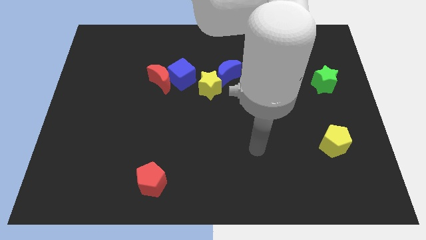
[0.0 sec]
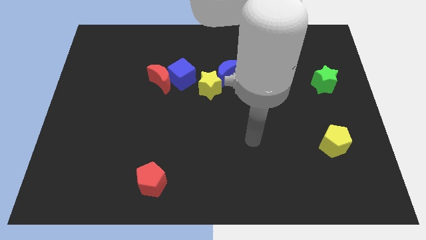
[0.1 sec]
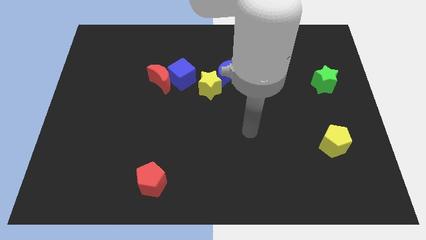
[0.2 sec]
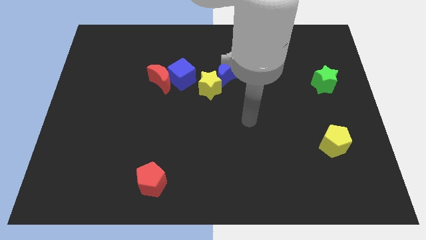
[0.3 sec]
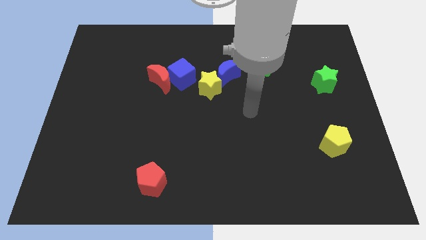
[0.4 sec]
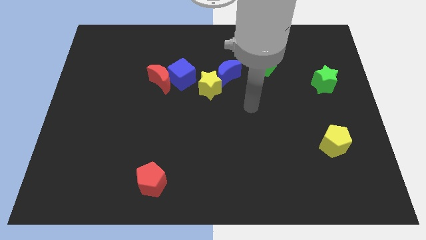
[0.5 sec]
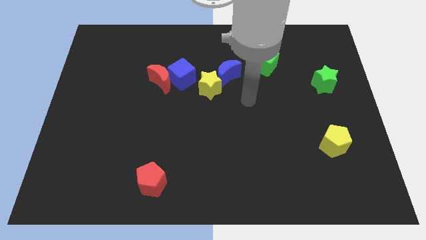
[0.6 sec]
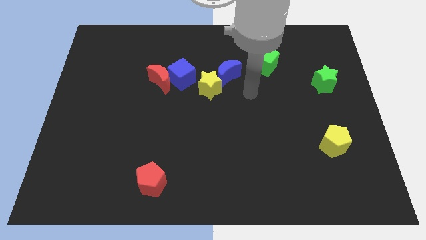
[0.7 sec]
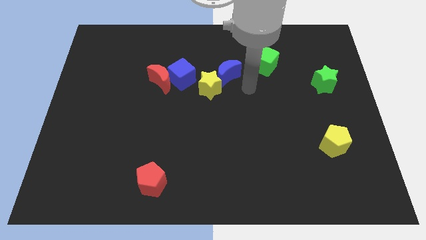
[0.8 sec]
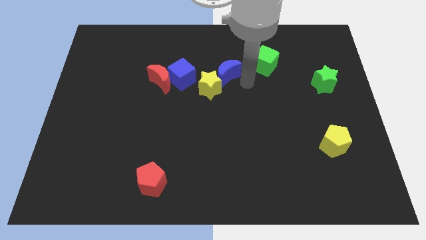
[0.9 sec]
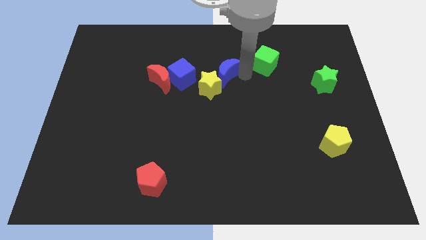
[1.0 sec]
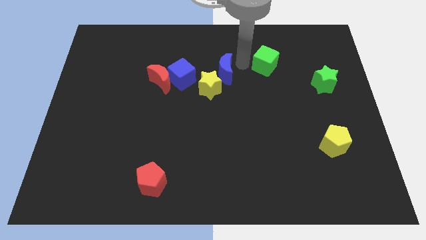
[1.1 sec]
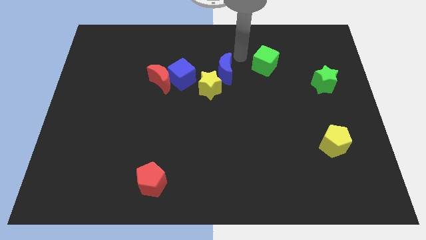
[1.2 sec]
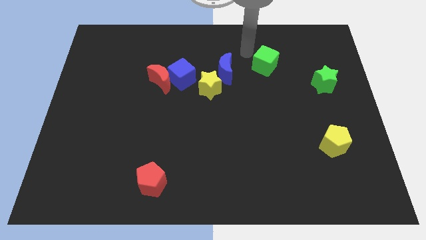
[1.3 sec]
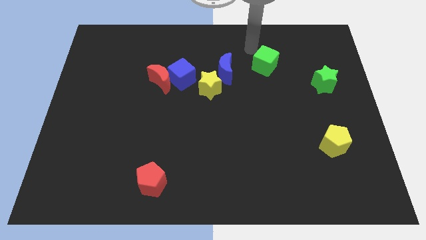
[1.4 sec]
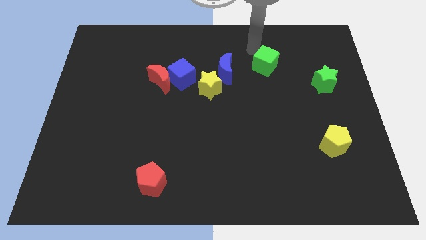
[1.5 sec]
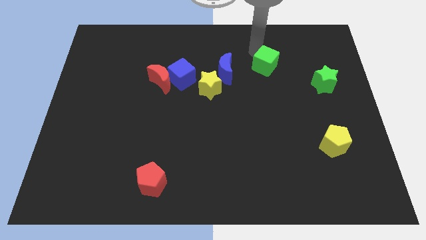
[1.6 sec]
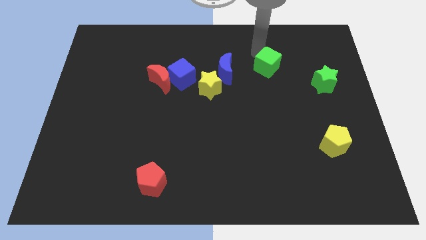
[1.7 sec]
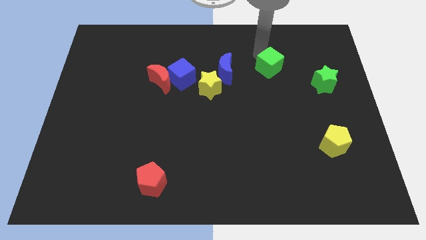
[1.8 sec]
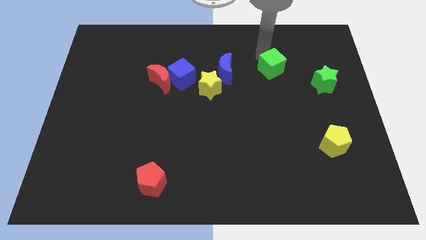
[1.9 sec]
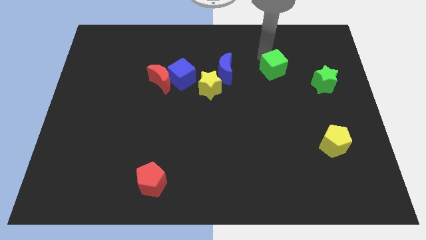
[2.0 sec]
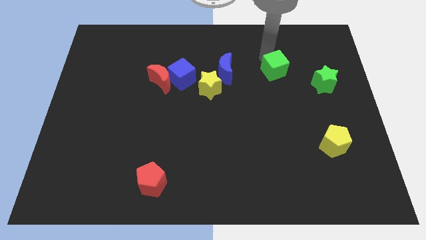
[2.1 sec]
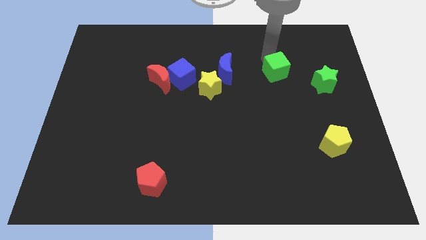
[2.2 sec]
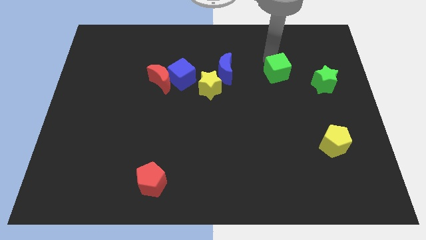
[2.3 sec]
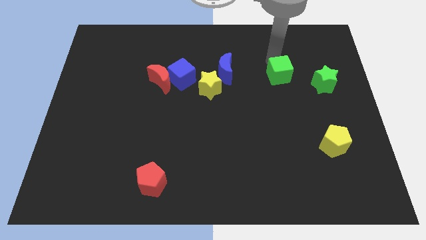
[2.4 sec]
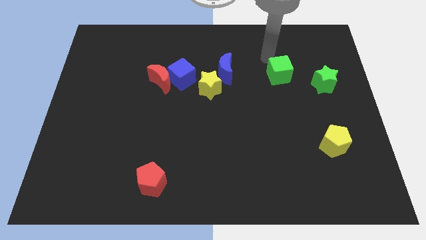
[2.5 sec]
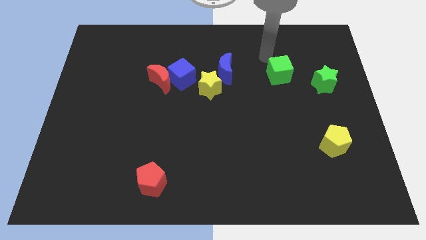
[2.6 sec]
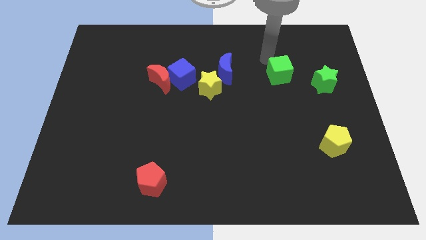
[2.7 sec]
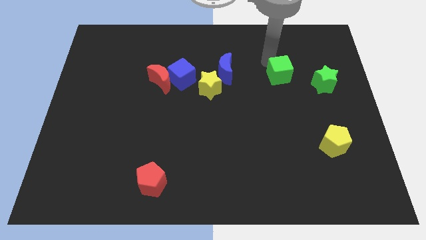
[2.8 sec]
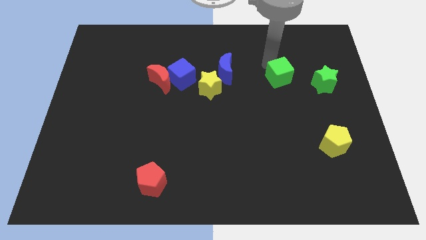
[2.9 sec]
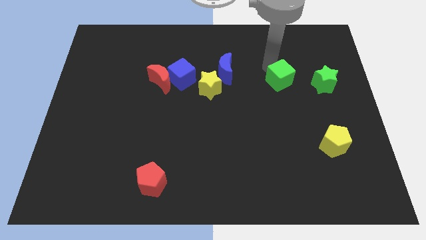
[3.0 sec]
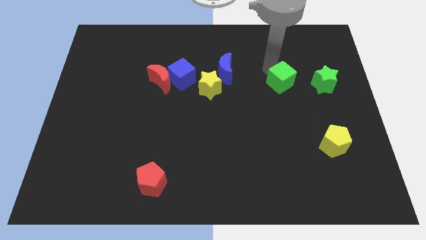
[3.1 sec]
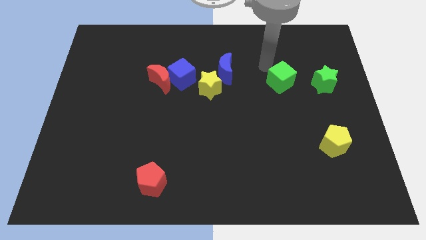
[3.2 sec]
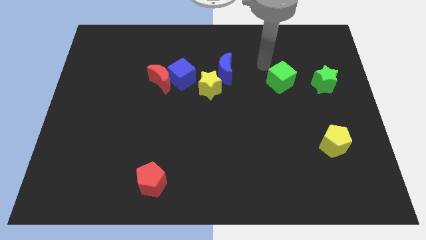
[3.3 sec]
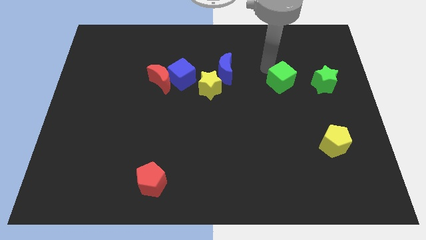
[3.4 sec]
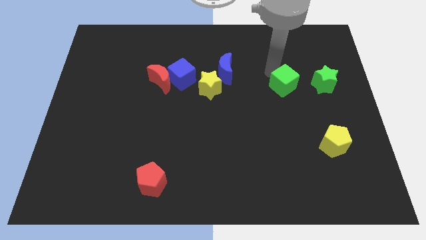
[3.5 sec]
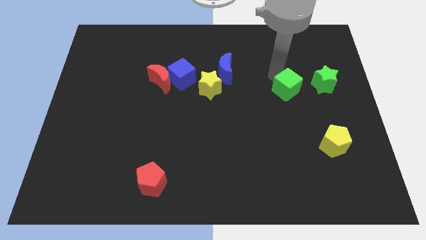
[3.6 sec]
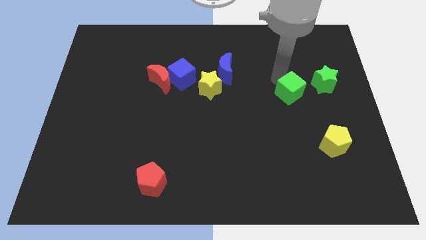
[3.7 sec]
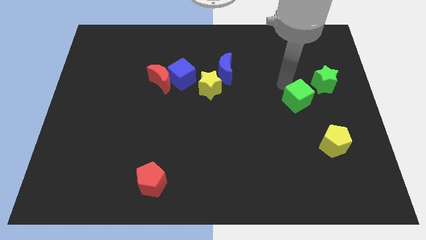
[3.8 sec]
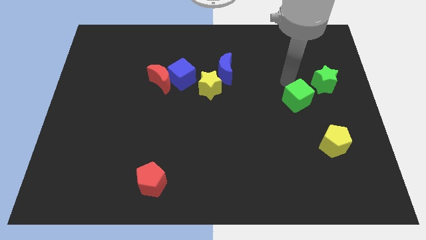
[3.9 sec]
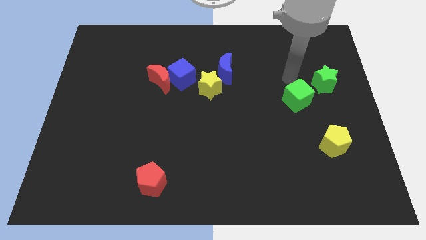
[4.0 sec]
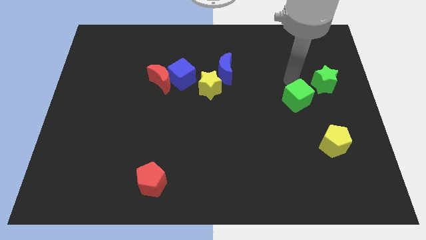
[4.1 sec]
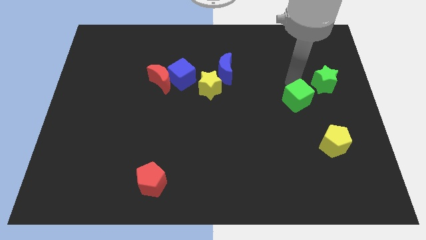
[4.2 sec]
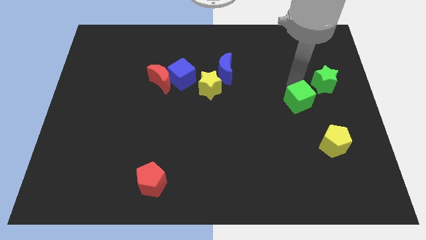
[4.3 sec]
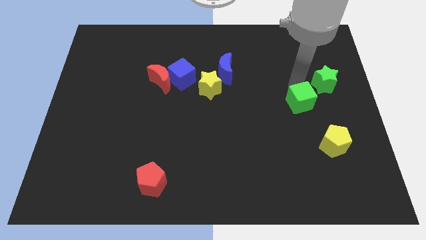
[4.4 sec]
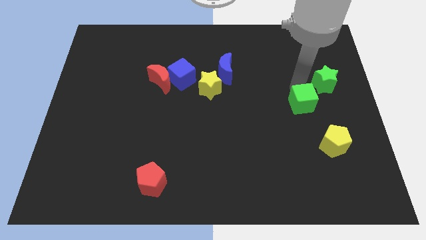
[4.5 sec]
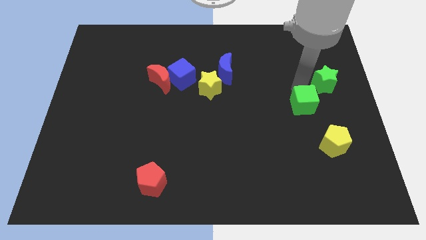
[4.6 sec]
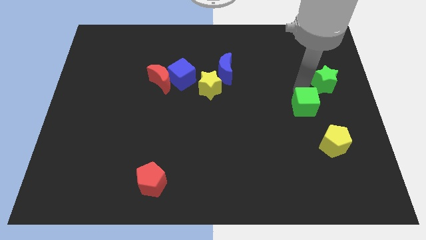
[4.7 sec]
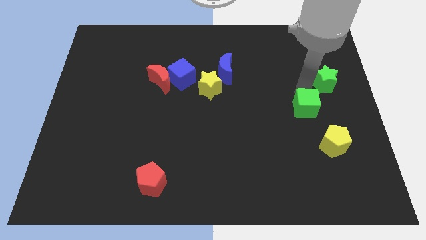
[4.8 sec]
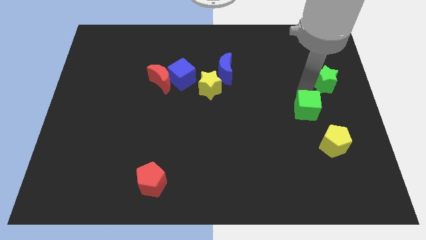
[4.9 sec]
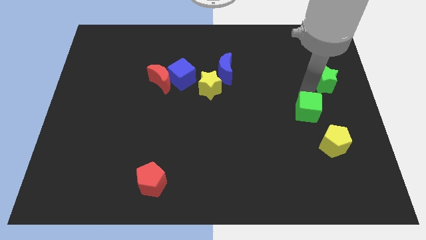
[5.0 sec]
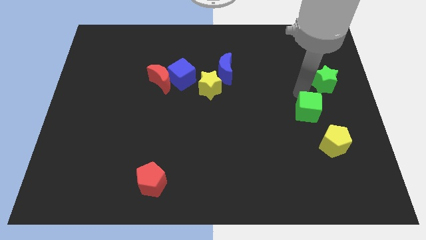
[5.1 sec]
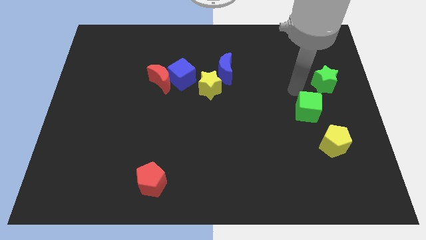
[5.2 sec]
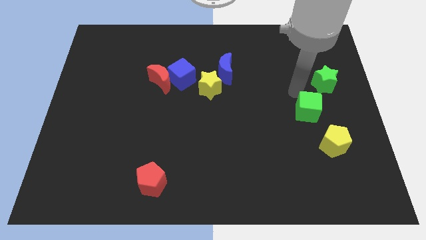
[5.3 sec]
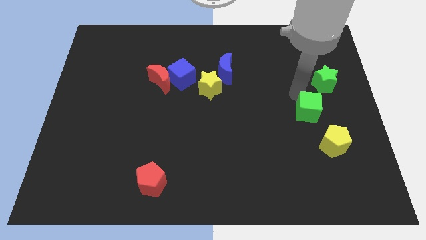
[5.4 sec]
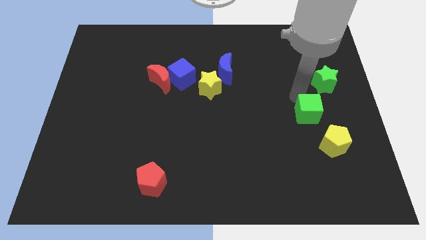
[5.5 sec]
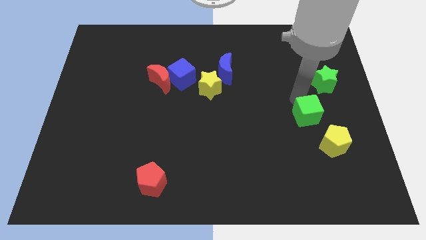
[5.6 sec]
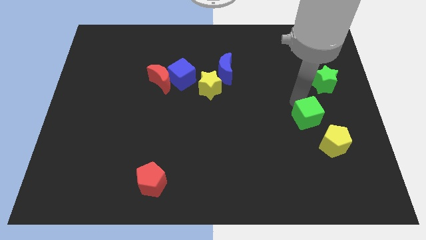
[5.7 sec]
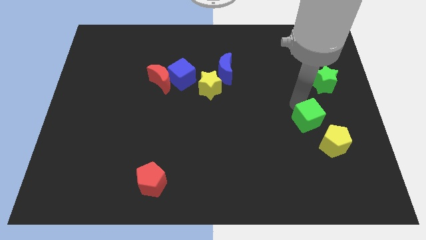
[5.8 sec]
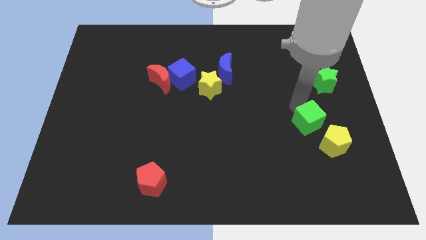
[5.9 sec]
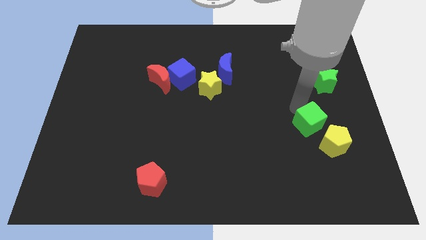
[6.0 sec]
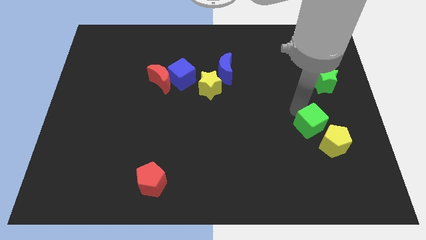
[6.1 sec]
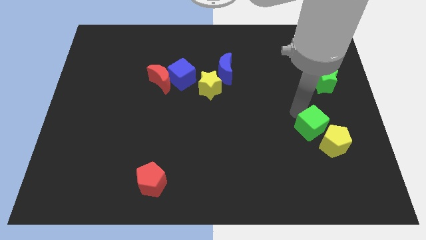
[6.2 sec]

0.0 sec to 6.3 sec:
slide the green cube close to the yellow pentagon

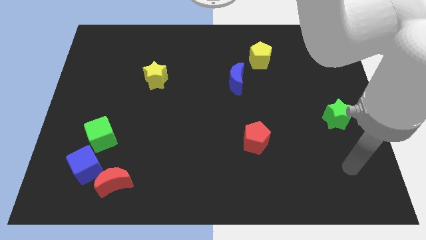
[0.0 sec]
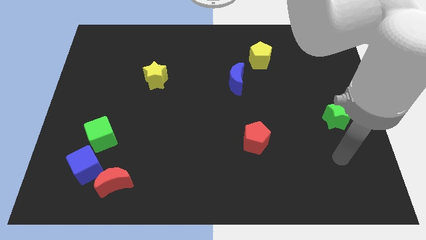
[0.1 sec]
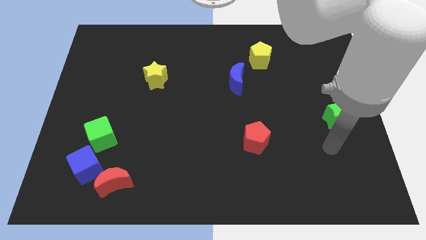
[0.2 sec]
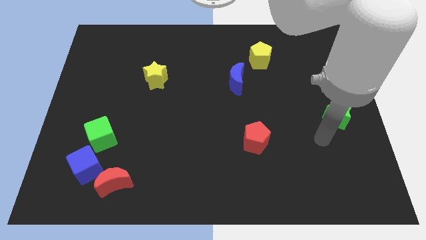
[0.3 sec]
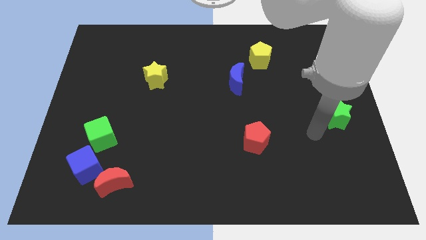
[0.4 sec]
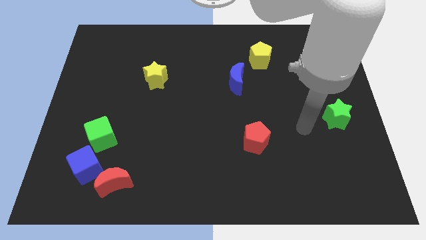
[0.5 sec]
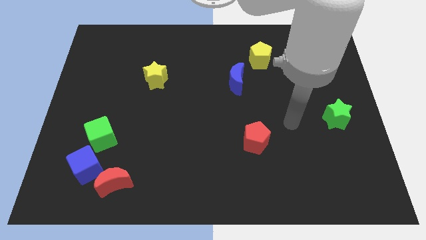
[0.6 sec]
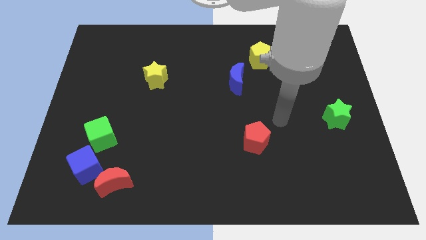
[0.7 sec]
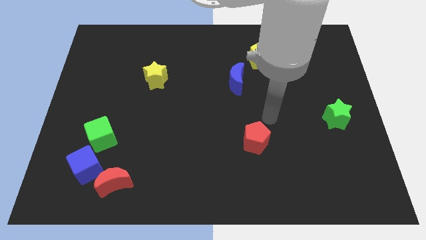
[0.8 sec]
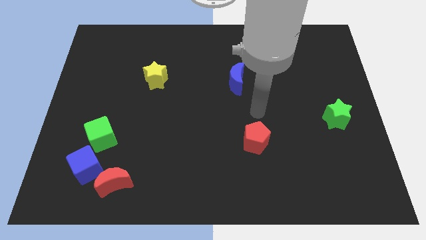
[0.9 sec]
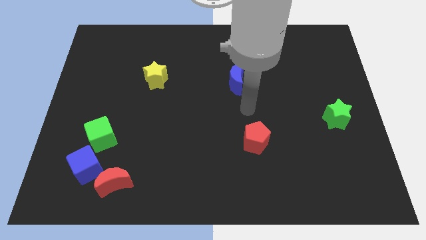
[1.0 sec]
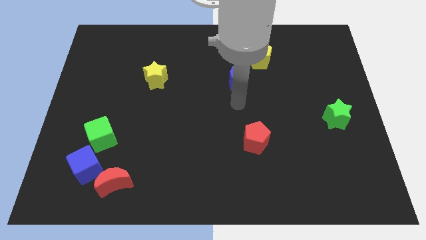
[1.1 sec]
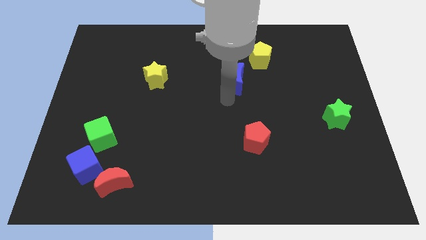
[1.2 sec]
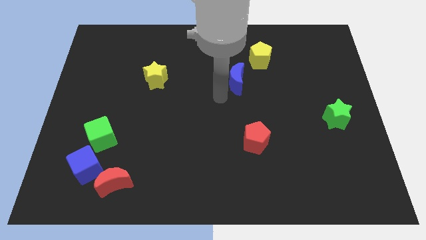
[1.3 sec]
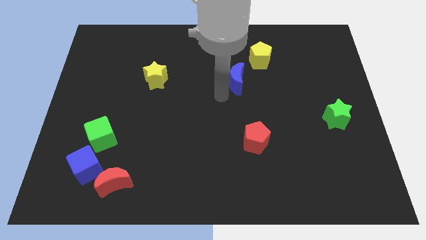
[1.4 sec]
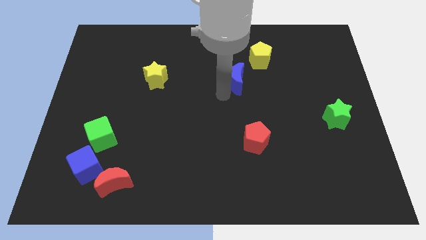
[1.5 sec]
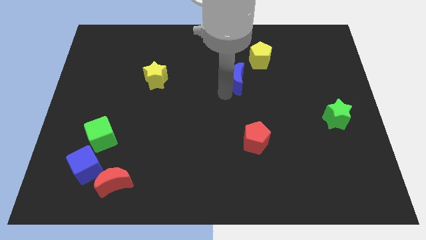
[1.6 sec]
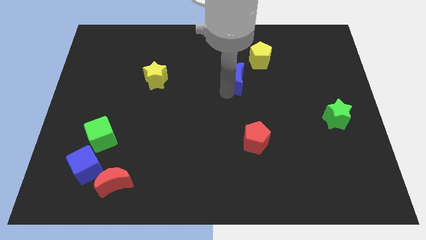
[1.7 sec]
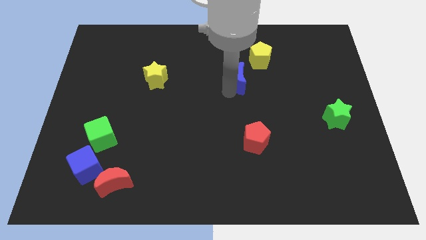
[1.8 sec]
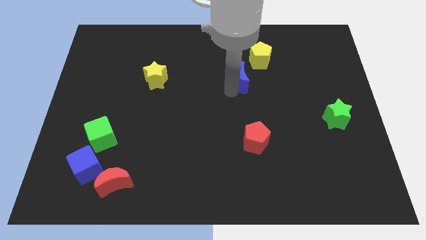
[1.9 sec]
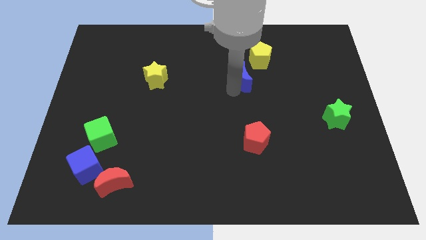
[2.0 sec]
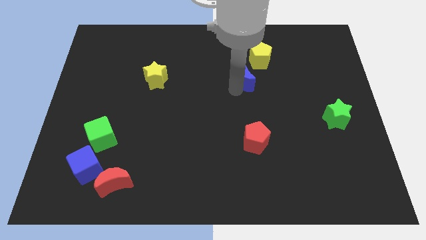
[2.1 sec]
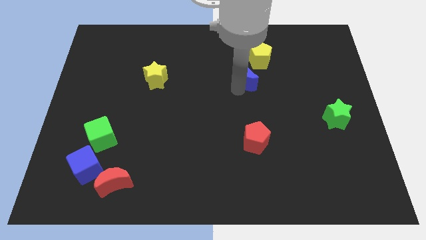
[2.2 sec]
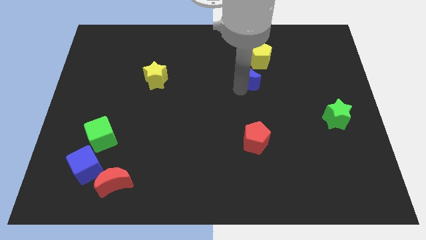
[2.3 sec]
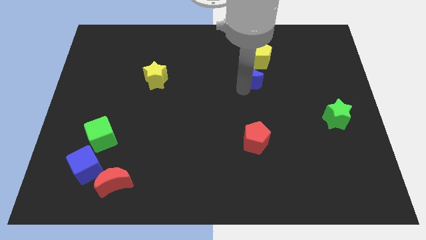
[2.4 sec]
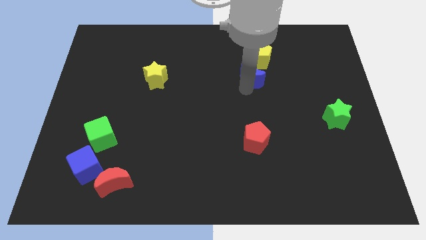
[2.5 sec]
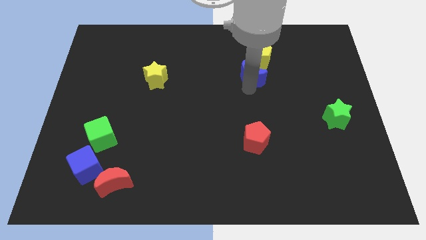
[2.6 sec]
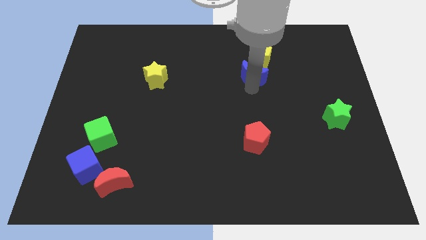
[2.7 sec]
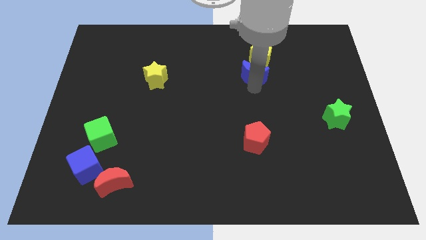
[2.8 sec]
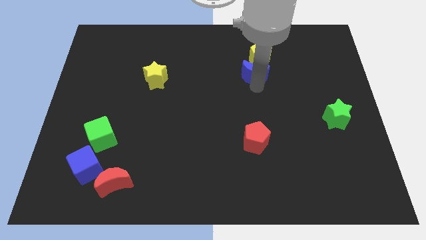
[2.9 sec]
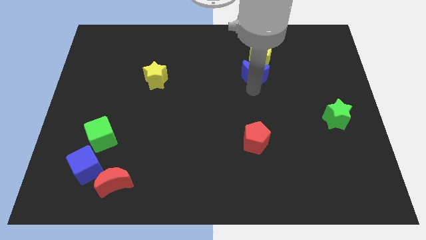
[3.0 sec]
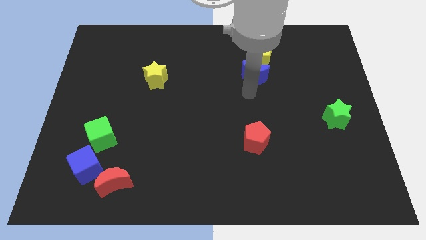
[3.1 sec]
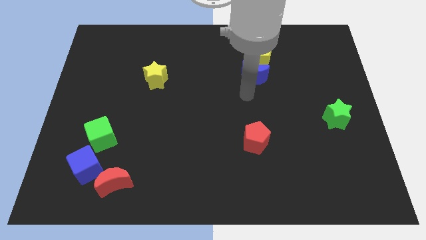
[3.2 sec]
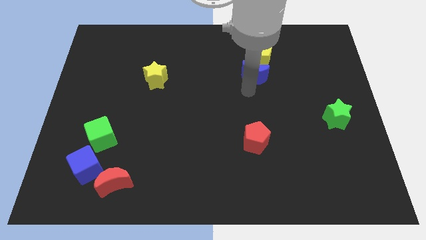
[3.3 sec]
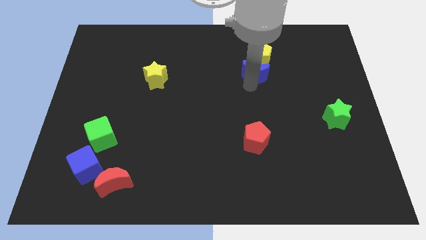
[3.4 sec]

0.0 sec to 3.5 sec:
move the blue moon close to the yellow pentagon
